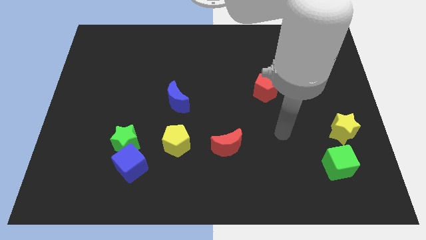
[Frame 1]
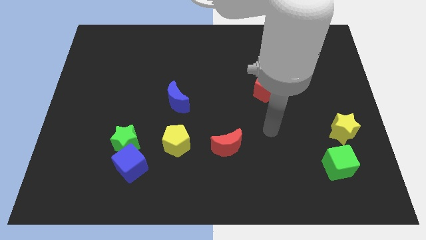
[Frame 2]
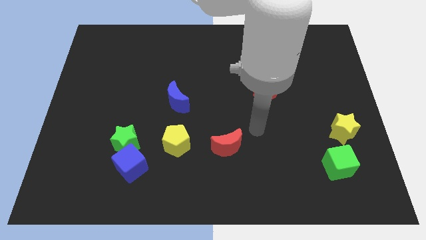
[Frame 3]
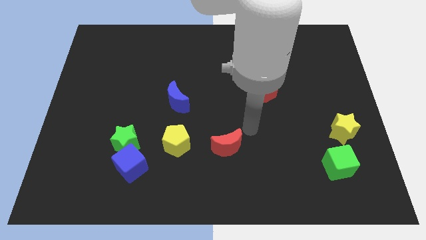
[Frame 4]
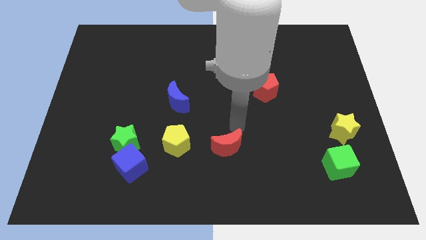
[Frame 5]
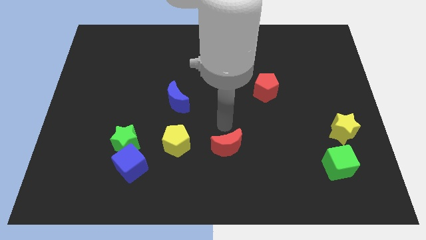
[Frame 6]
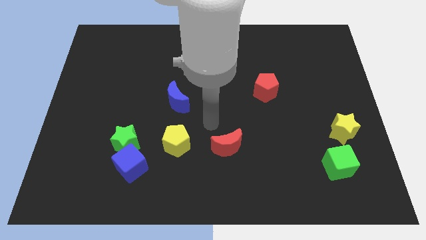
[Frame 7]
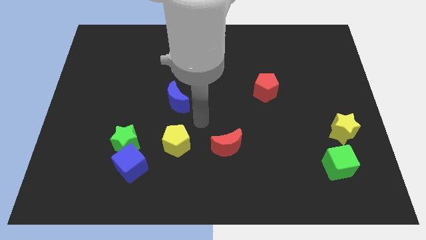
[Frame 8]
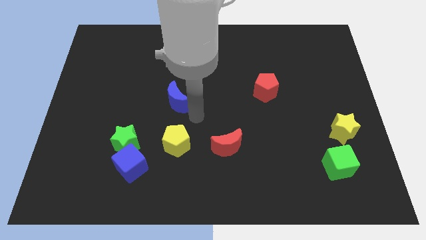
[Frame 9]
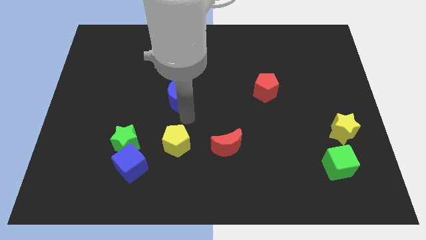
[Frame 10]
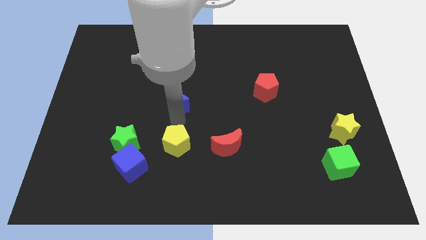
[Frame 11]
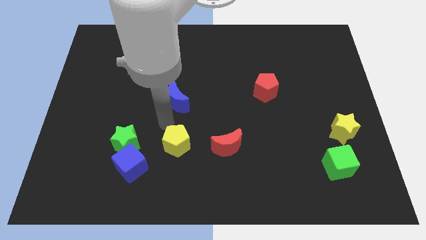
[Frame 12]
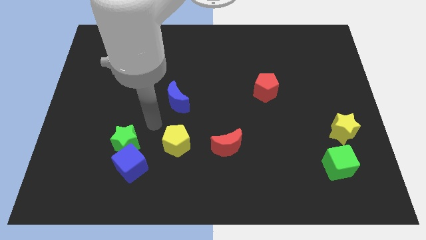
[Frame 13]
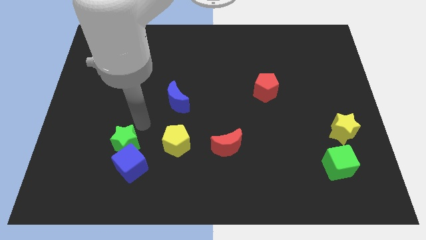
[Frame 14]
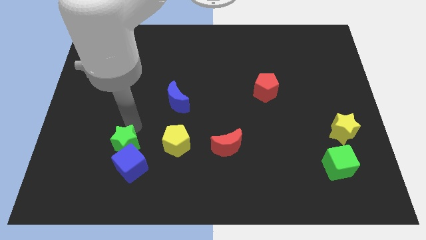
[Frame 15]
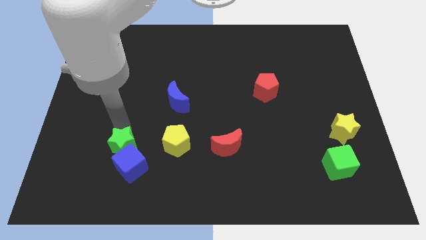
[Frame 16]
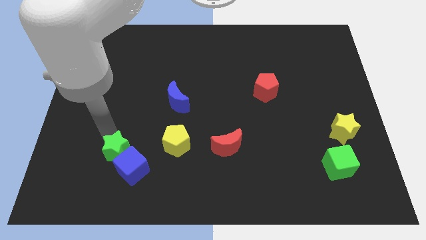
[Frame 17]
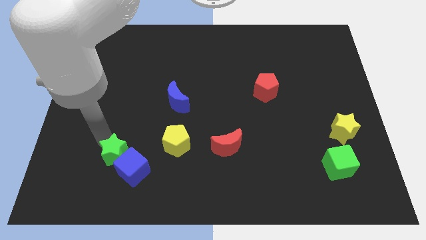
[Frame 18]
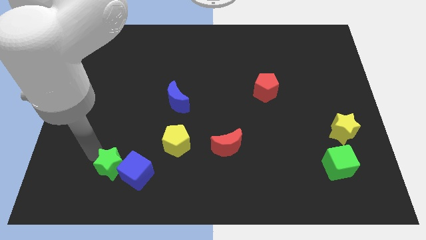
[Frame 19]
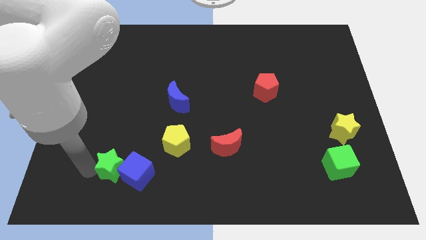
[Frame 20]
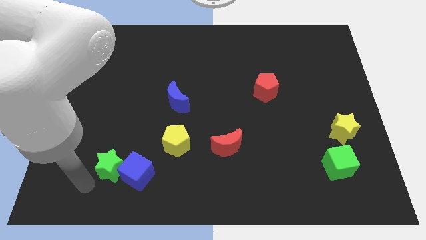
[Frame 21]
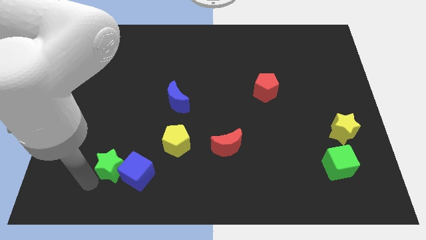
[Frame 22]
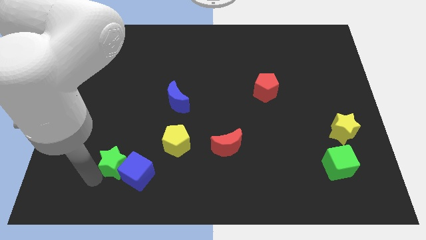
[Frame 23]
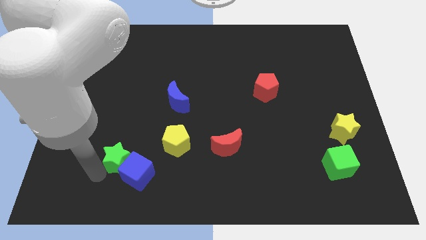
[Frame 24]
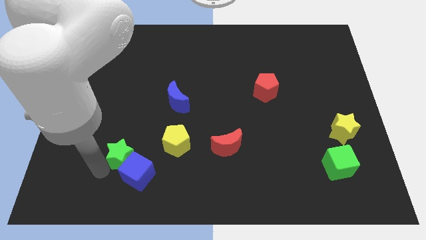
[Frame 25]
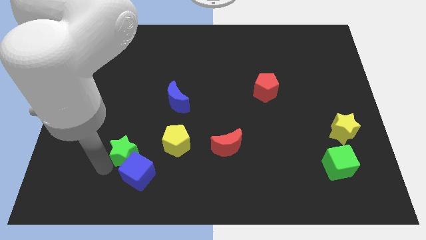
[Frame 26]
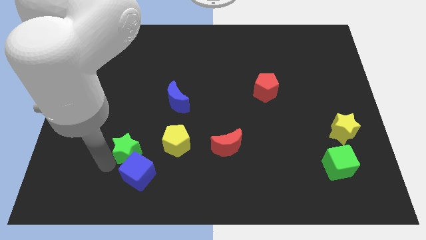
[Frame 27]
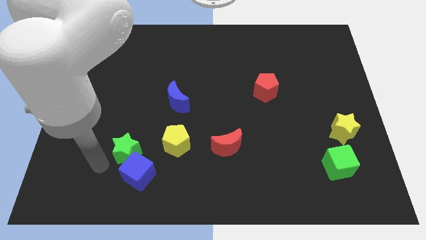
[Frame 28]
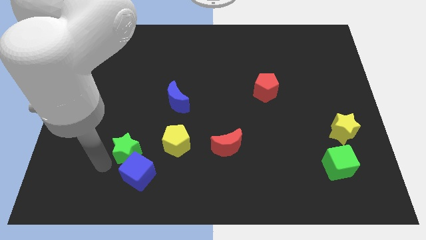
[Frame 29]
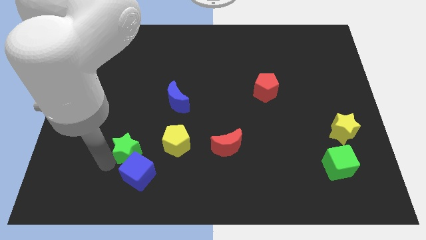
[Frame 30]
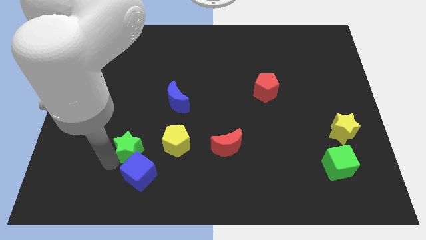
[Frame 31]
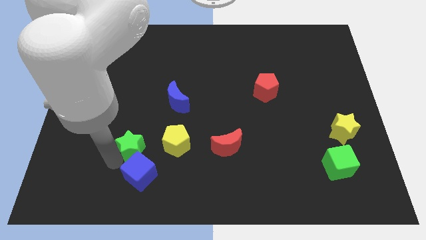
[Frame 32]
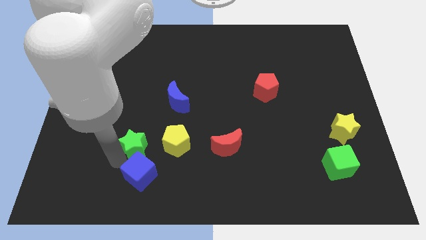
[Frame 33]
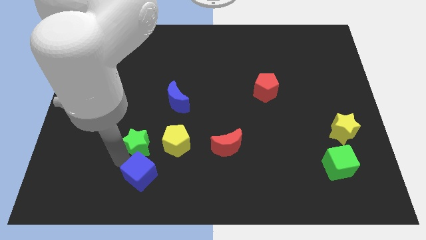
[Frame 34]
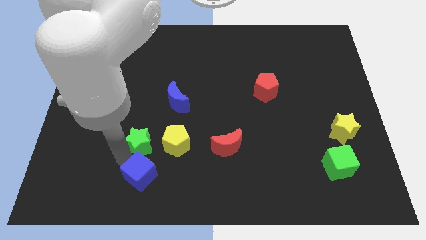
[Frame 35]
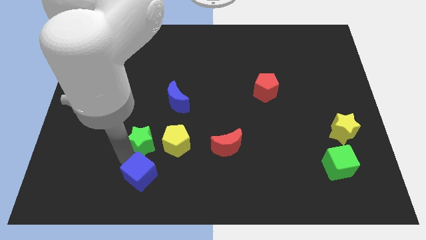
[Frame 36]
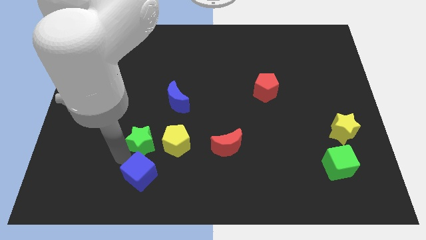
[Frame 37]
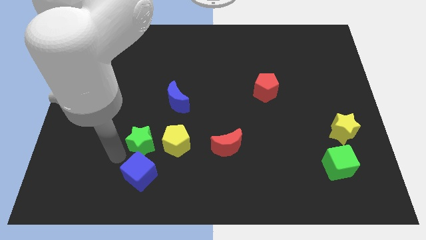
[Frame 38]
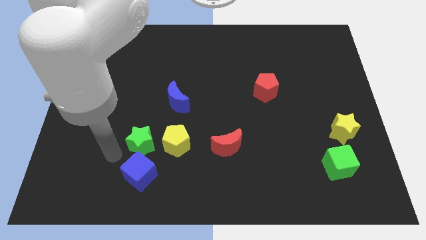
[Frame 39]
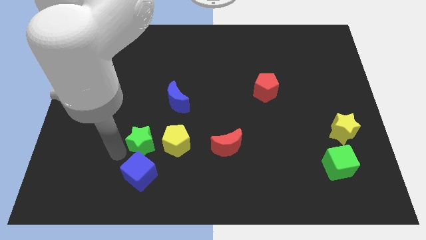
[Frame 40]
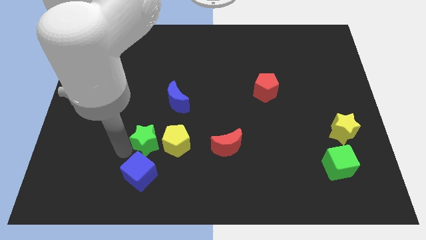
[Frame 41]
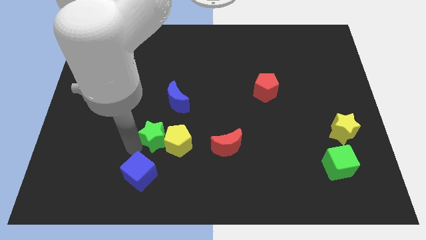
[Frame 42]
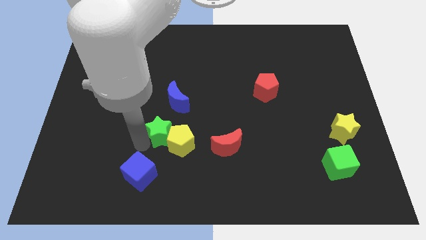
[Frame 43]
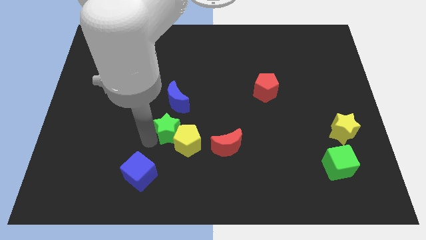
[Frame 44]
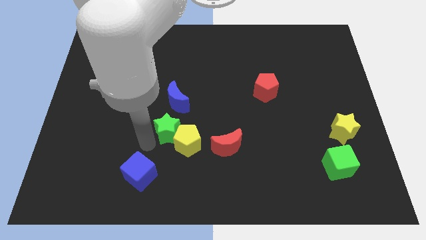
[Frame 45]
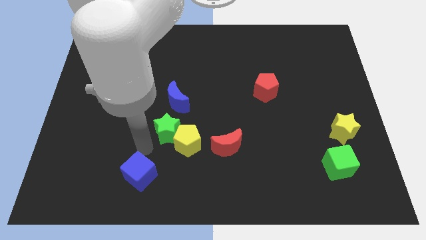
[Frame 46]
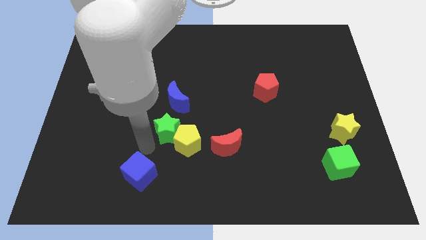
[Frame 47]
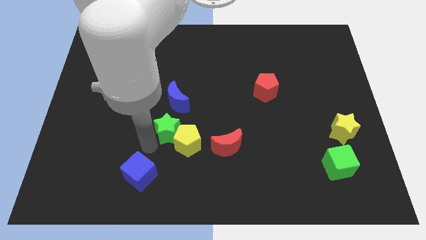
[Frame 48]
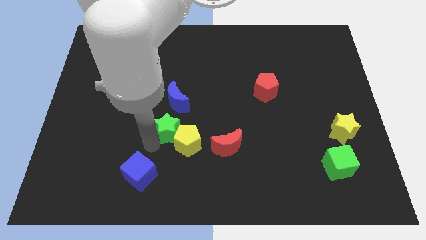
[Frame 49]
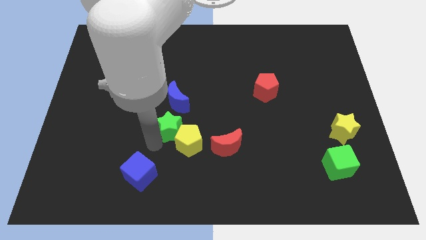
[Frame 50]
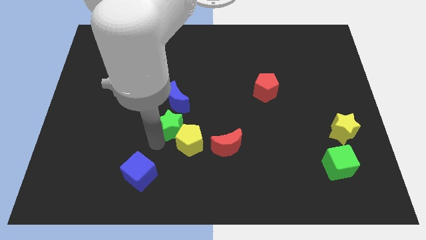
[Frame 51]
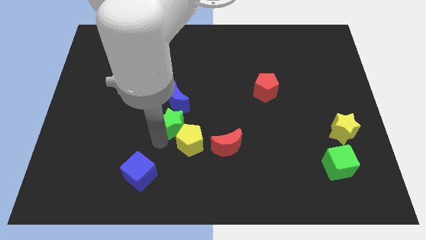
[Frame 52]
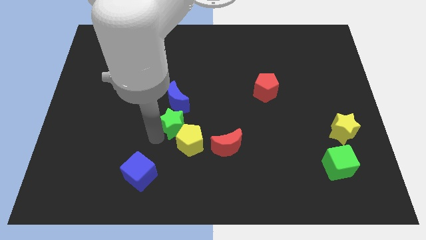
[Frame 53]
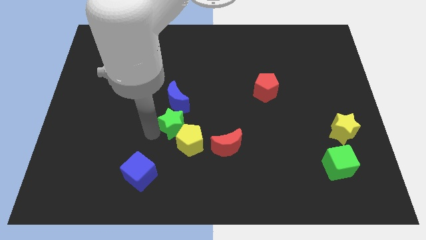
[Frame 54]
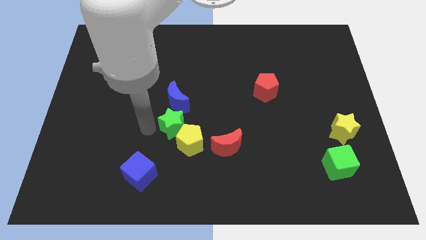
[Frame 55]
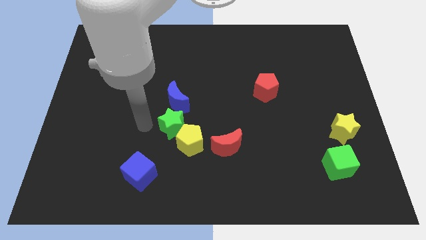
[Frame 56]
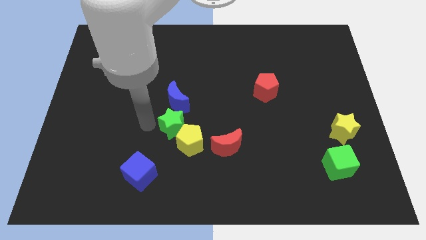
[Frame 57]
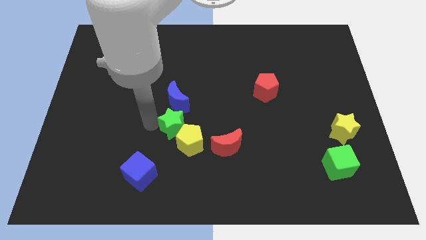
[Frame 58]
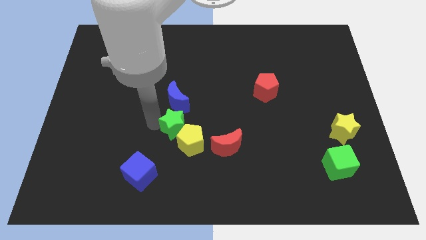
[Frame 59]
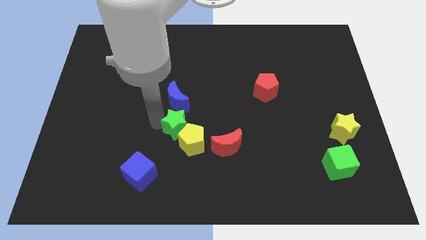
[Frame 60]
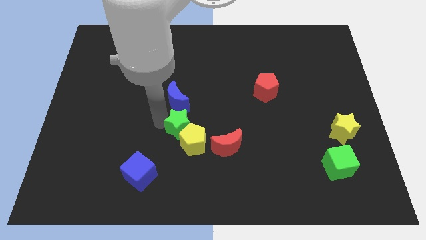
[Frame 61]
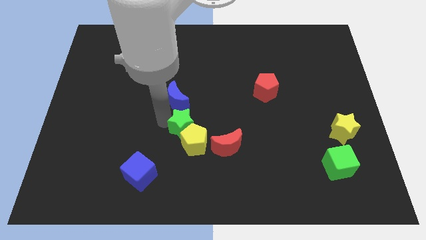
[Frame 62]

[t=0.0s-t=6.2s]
move the green star diagonally up and to the left of the red moon

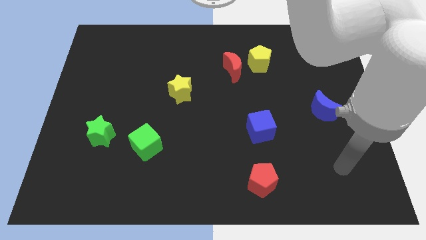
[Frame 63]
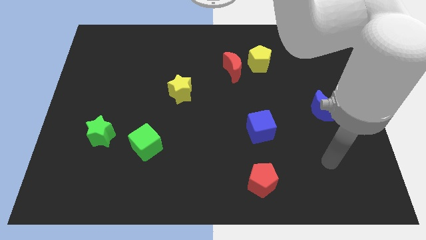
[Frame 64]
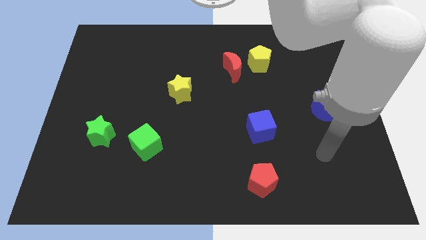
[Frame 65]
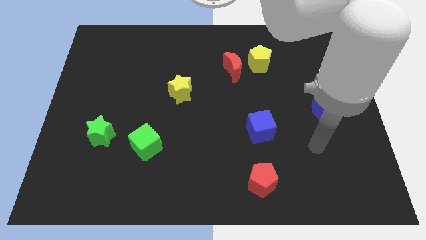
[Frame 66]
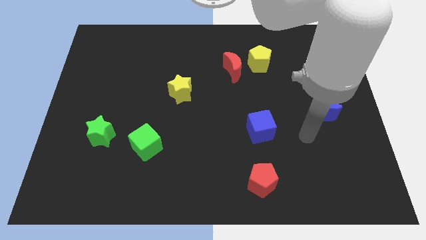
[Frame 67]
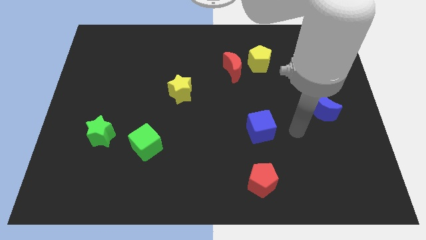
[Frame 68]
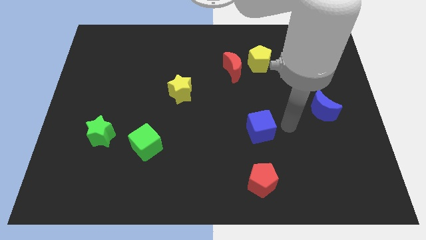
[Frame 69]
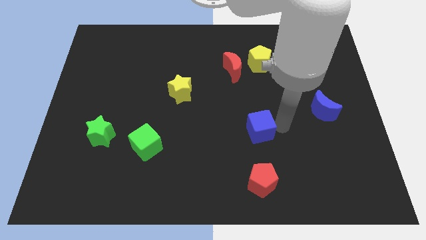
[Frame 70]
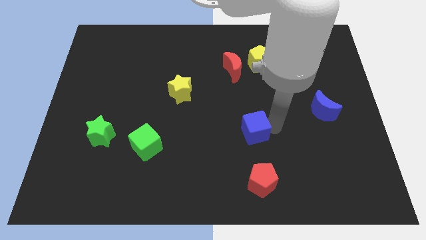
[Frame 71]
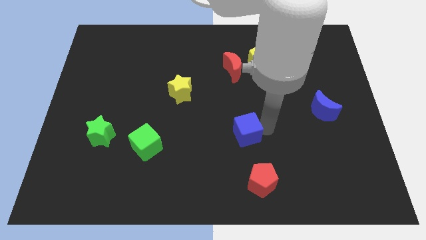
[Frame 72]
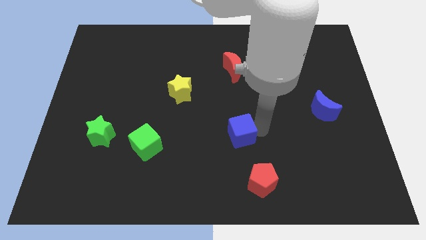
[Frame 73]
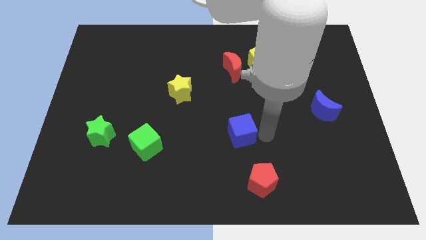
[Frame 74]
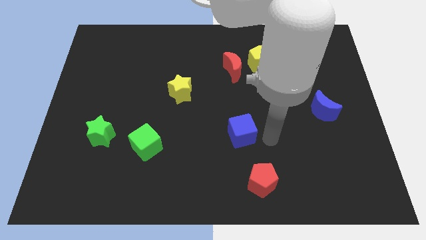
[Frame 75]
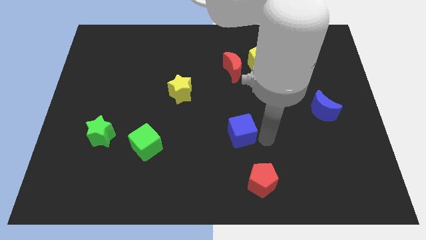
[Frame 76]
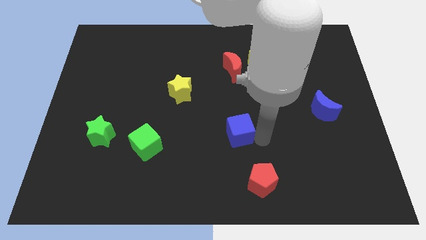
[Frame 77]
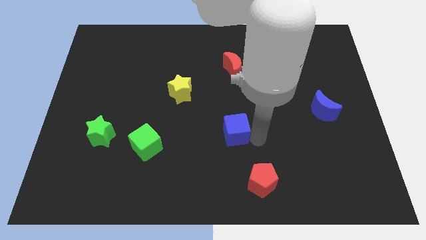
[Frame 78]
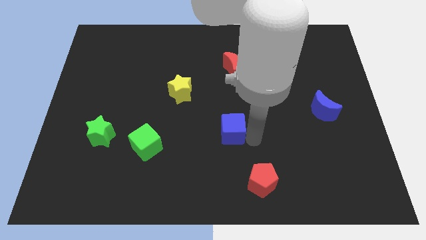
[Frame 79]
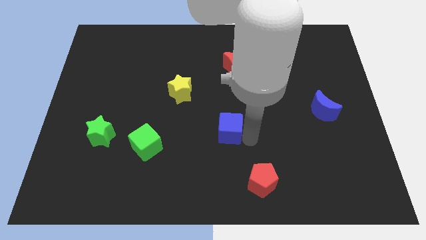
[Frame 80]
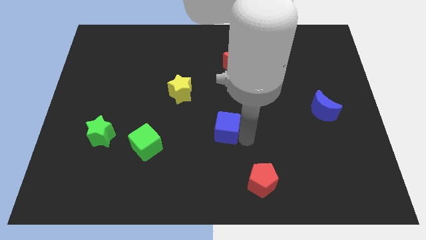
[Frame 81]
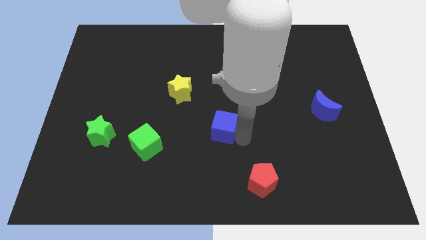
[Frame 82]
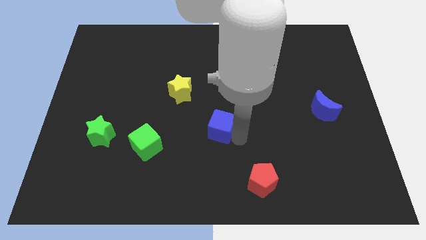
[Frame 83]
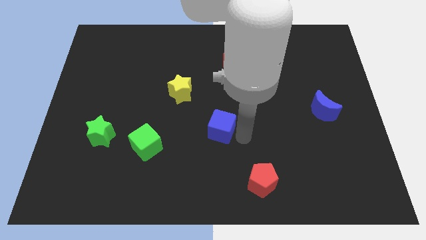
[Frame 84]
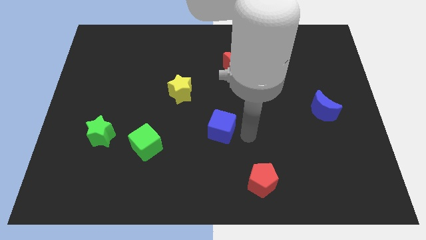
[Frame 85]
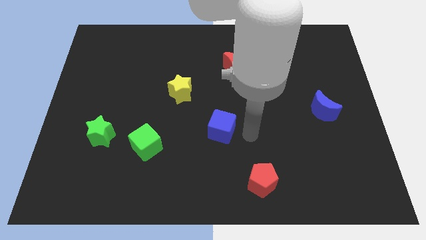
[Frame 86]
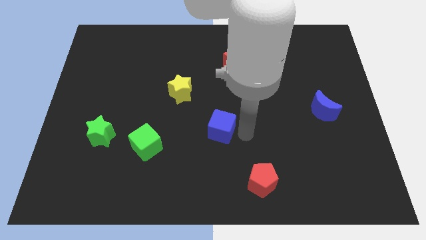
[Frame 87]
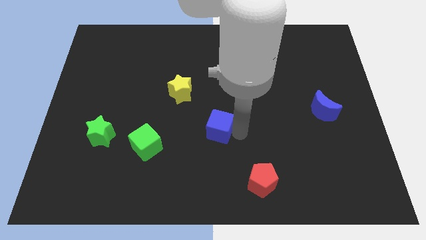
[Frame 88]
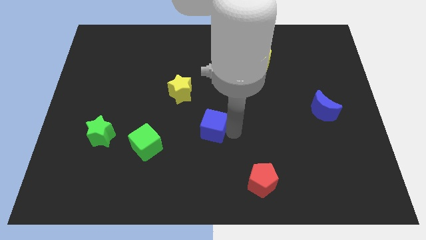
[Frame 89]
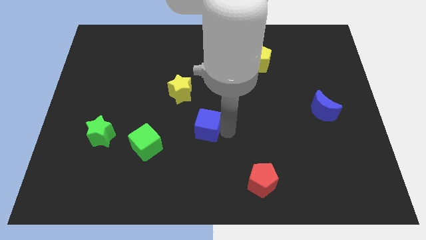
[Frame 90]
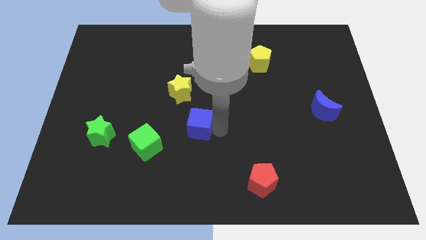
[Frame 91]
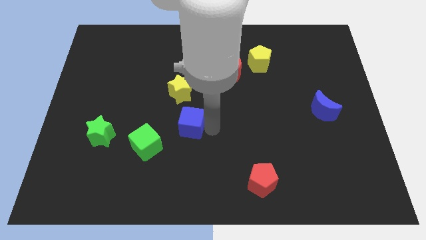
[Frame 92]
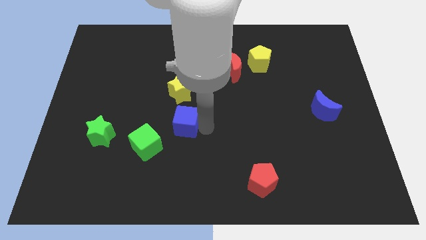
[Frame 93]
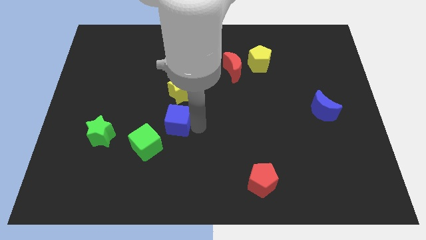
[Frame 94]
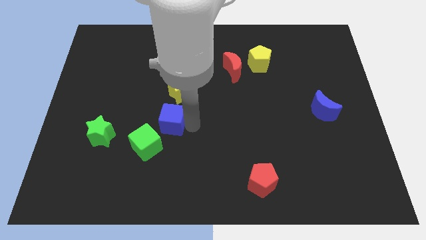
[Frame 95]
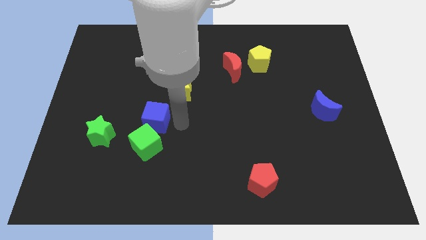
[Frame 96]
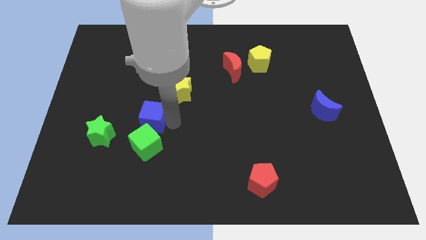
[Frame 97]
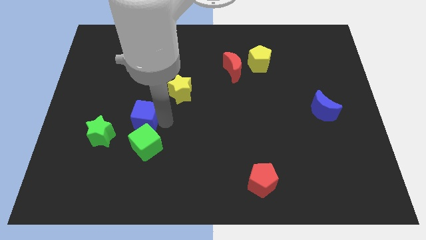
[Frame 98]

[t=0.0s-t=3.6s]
slide the blue cube to the top right side of the green star
